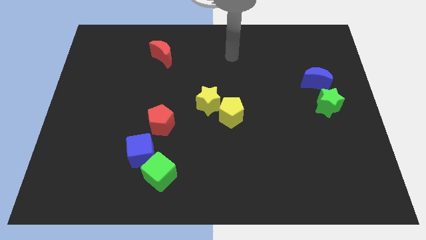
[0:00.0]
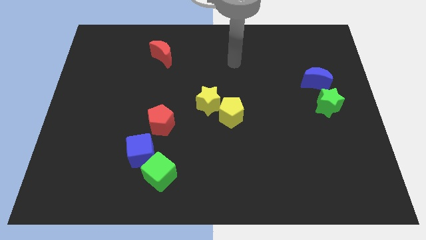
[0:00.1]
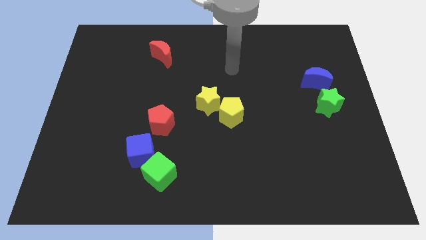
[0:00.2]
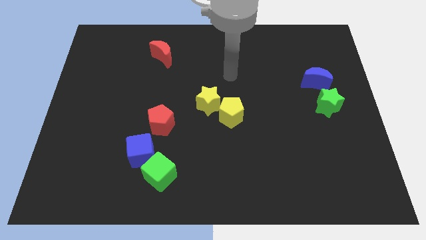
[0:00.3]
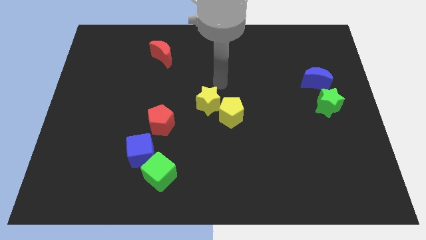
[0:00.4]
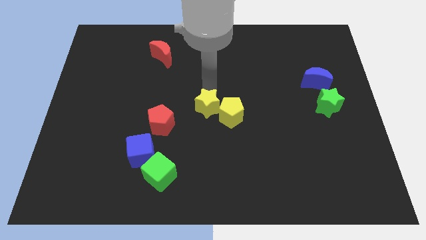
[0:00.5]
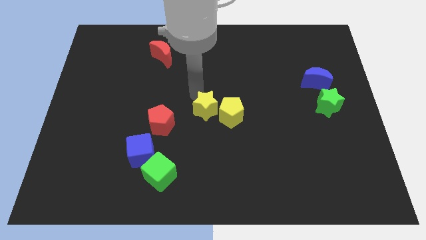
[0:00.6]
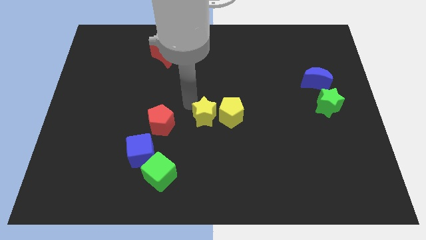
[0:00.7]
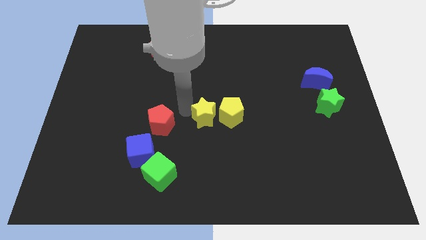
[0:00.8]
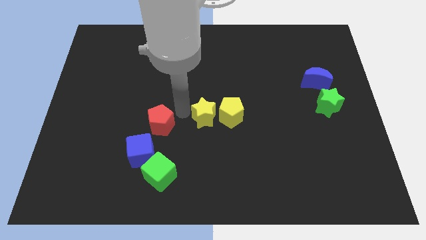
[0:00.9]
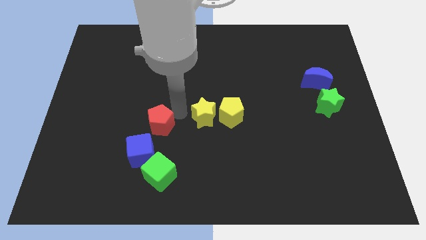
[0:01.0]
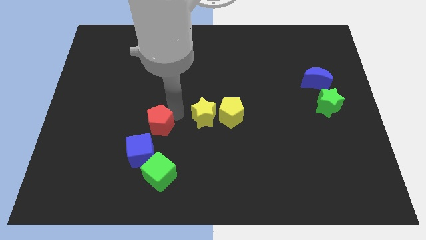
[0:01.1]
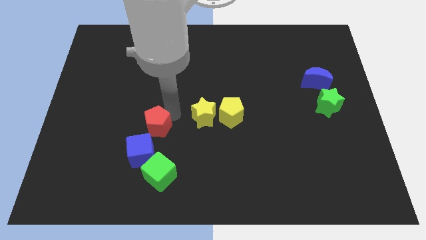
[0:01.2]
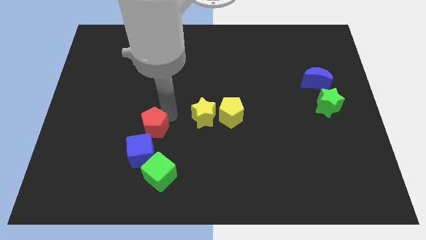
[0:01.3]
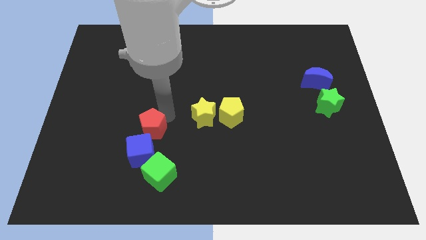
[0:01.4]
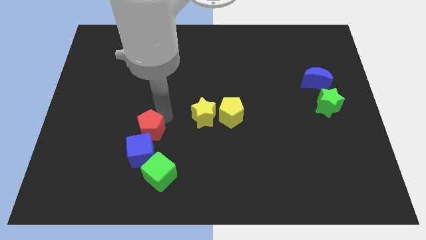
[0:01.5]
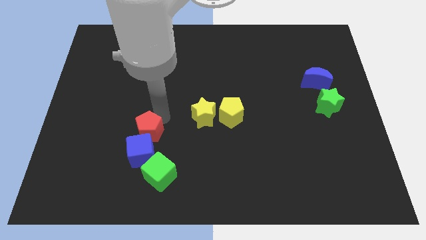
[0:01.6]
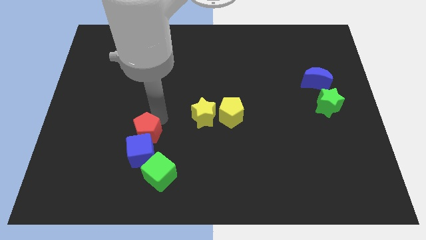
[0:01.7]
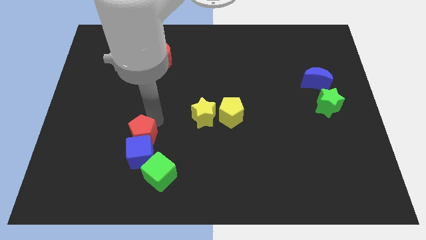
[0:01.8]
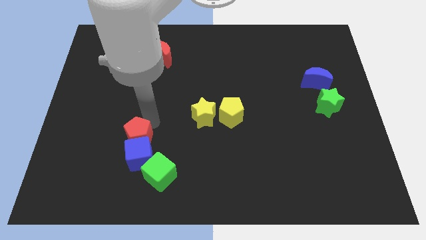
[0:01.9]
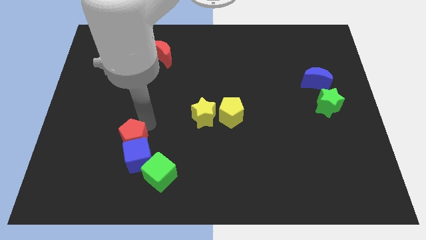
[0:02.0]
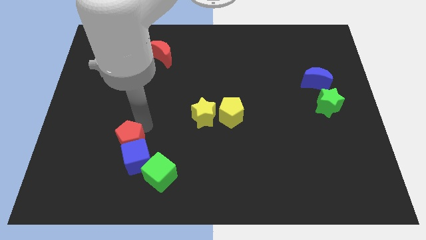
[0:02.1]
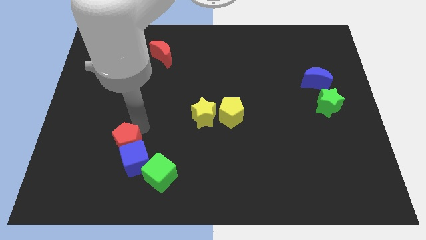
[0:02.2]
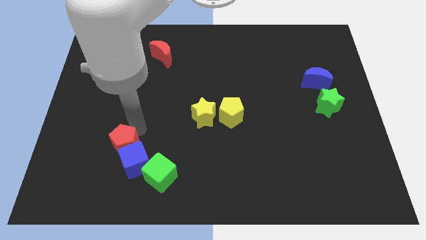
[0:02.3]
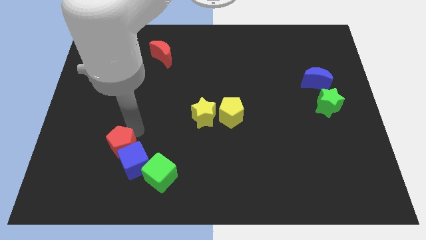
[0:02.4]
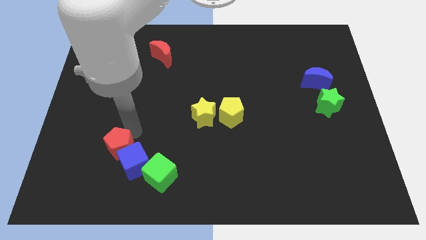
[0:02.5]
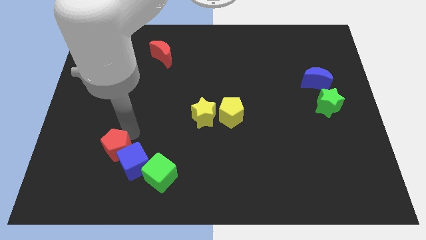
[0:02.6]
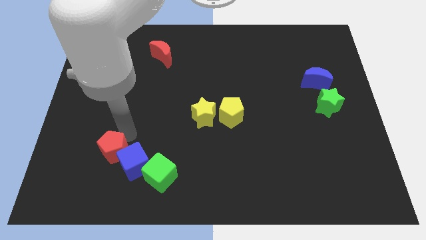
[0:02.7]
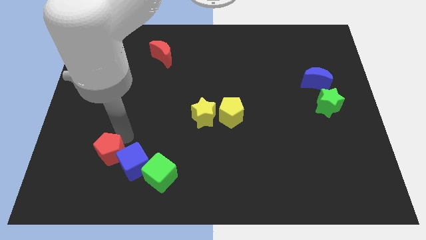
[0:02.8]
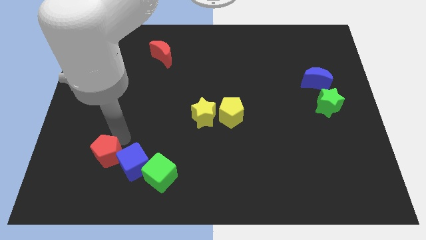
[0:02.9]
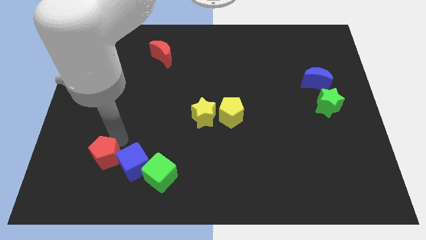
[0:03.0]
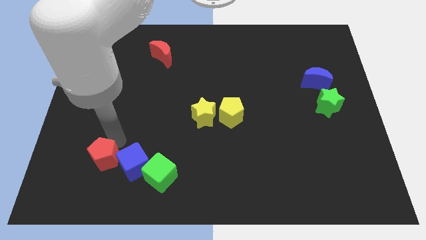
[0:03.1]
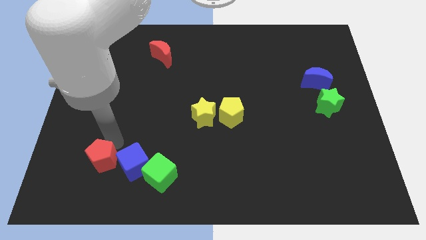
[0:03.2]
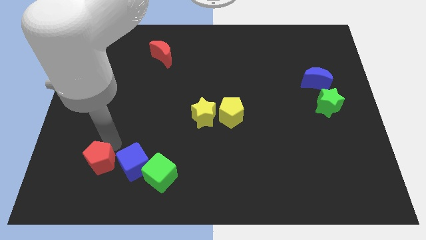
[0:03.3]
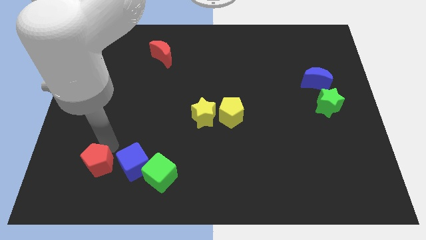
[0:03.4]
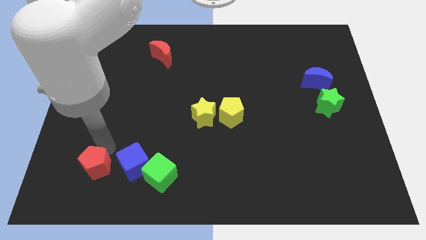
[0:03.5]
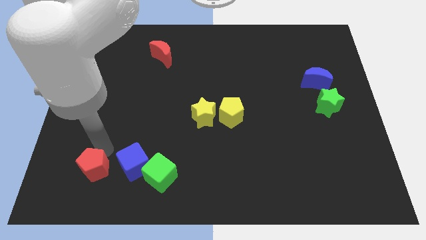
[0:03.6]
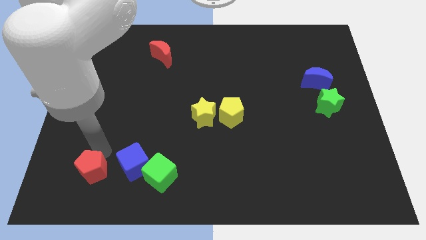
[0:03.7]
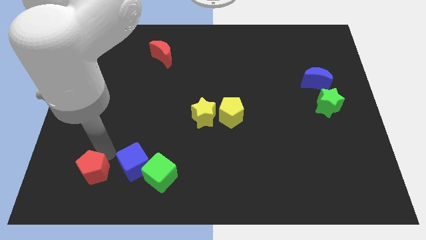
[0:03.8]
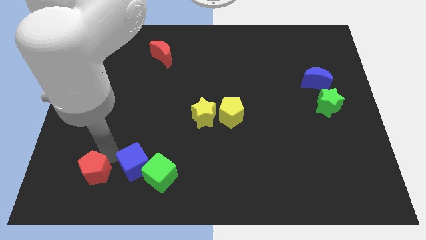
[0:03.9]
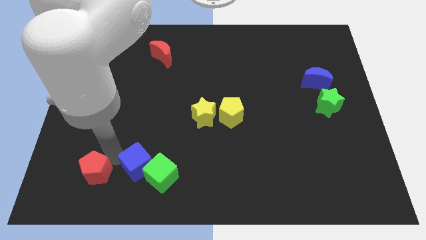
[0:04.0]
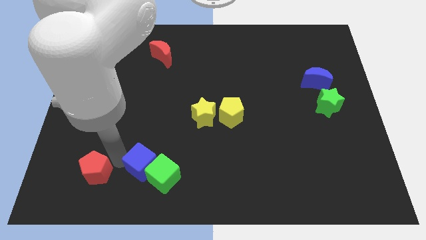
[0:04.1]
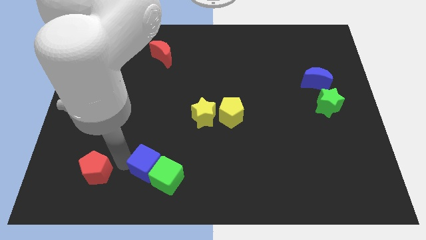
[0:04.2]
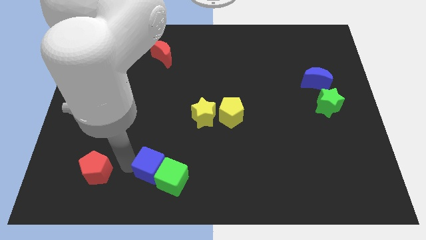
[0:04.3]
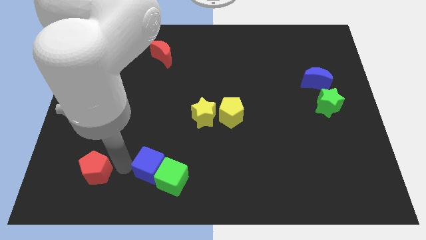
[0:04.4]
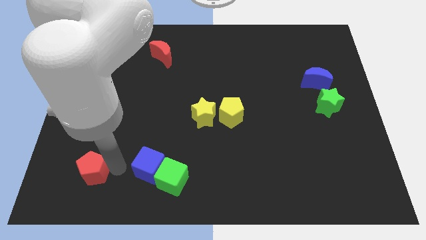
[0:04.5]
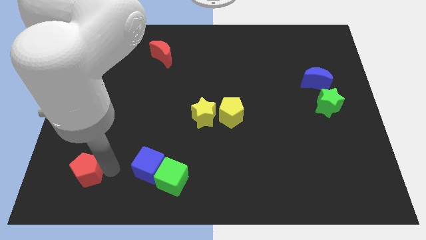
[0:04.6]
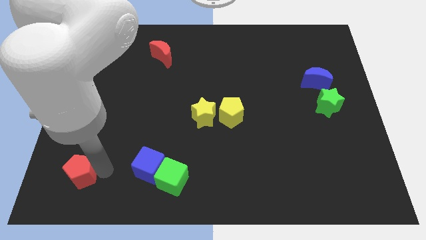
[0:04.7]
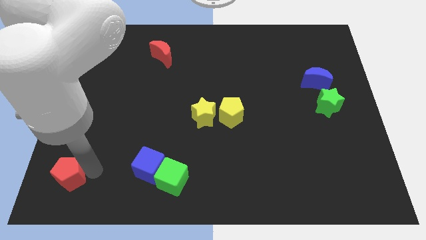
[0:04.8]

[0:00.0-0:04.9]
push the red pentagon to the bottom left corner

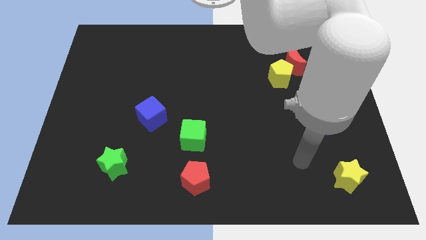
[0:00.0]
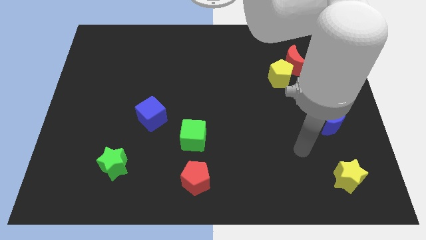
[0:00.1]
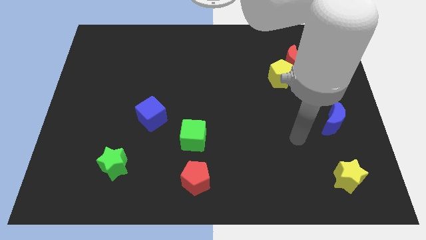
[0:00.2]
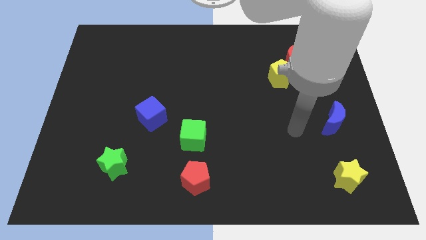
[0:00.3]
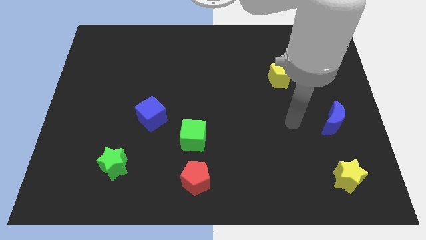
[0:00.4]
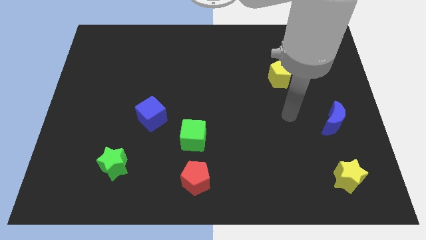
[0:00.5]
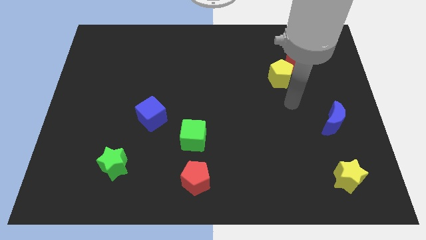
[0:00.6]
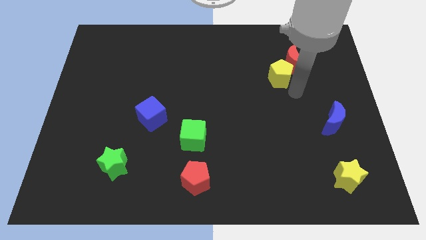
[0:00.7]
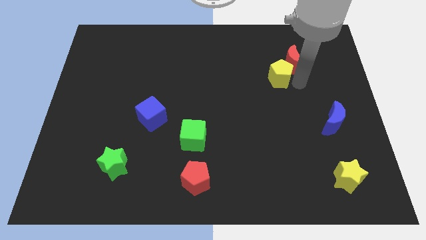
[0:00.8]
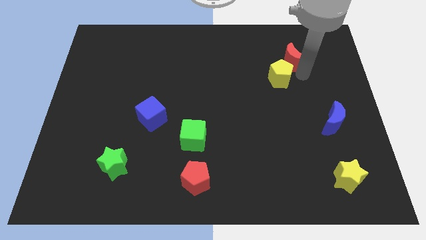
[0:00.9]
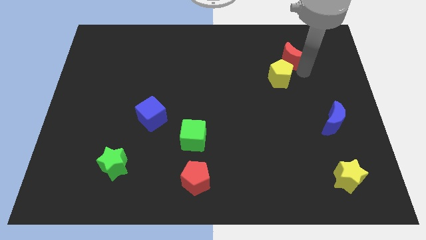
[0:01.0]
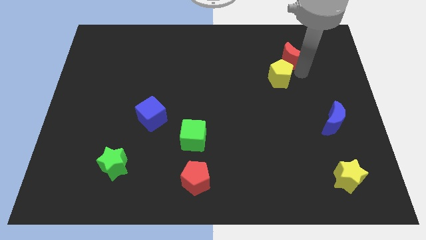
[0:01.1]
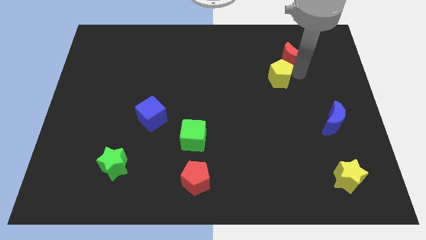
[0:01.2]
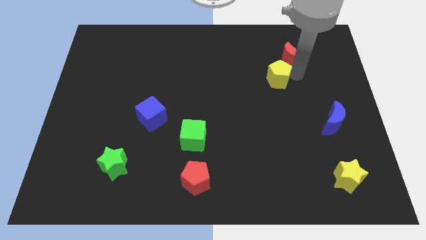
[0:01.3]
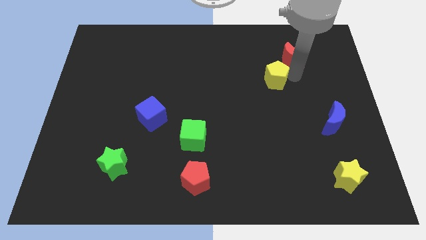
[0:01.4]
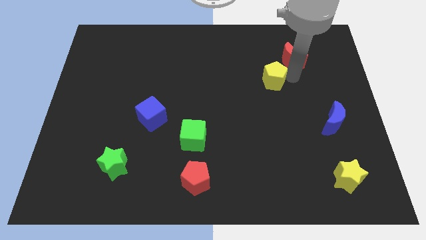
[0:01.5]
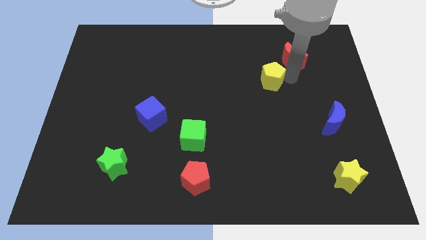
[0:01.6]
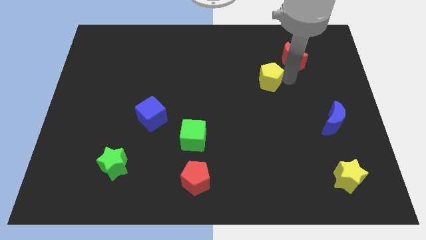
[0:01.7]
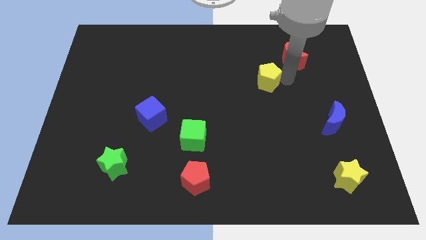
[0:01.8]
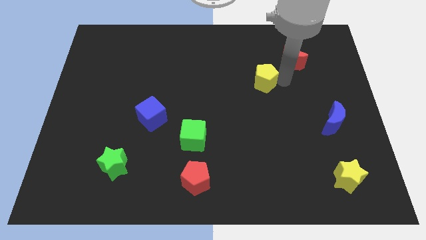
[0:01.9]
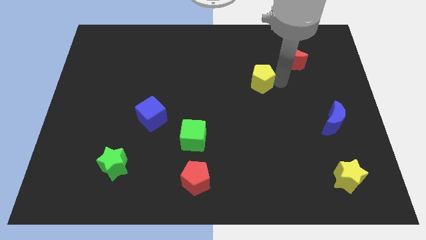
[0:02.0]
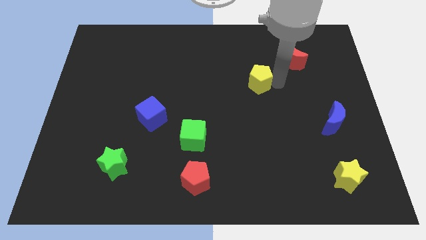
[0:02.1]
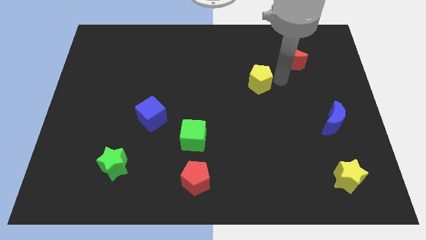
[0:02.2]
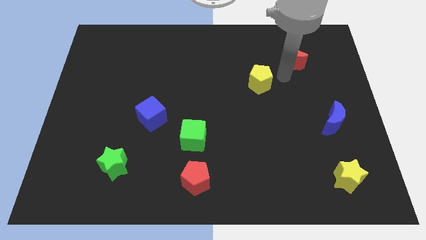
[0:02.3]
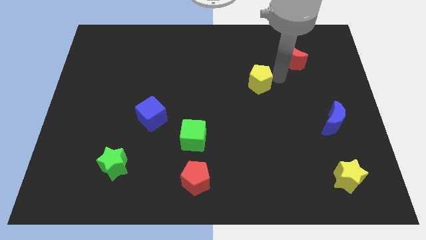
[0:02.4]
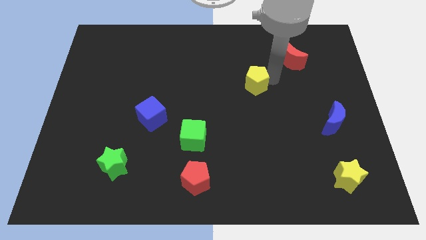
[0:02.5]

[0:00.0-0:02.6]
put the yellow pentagon to the center
